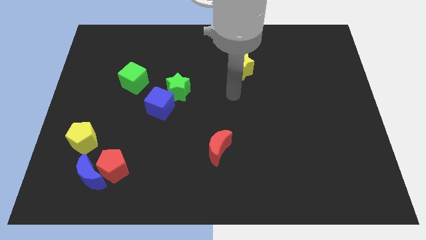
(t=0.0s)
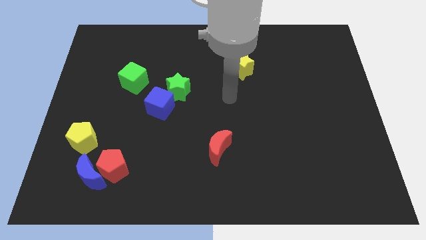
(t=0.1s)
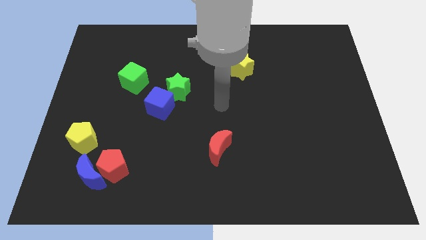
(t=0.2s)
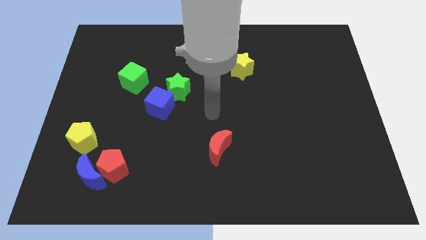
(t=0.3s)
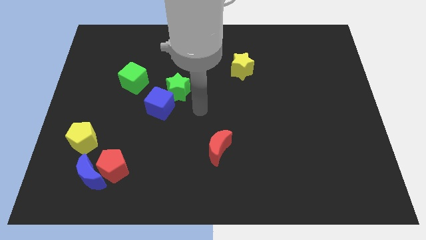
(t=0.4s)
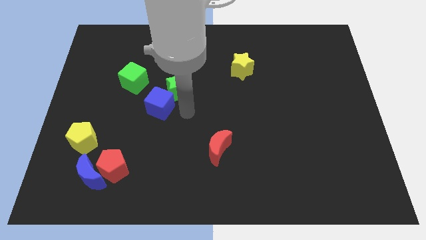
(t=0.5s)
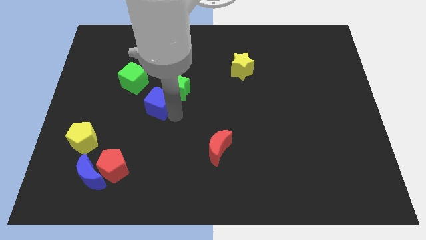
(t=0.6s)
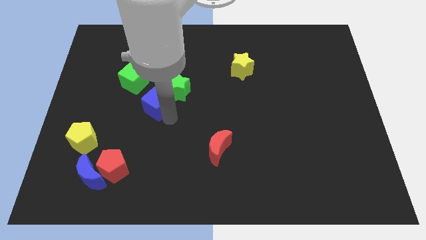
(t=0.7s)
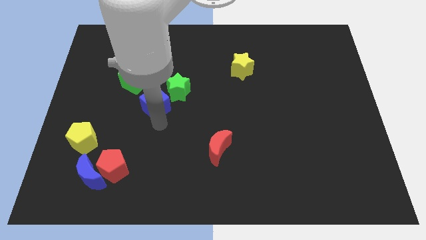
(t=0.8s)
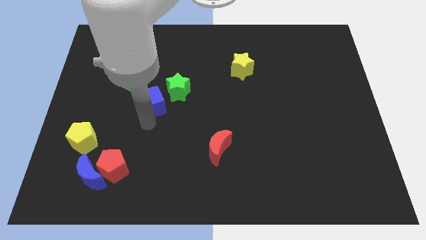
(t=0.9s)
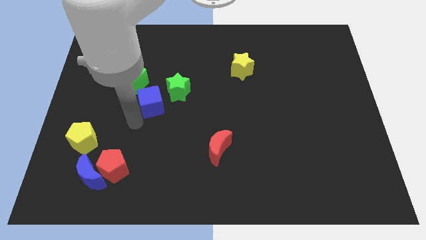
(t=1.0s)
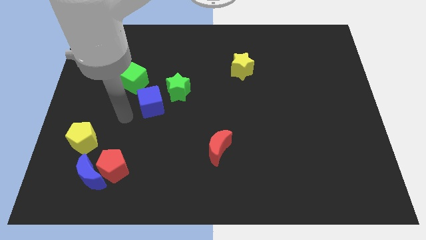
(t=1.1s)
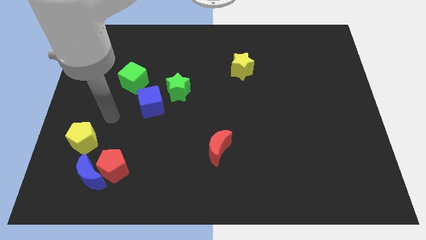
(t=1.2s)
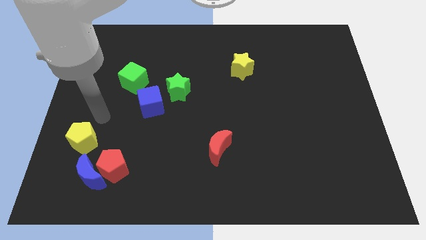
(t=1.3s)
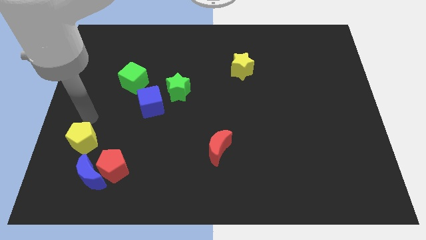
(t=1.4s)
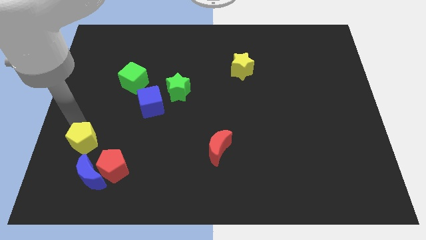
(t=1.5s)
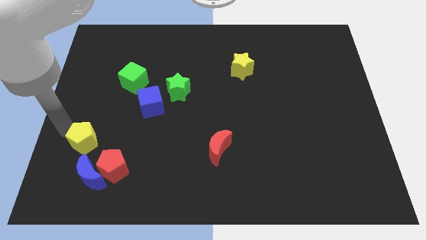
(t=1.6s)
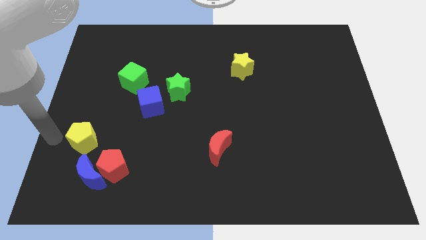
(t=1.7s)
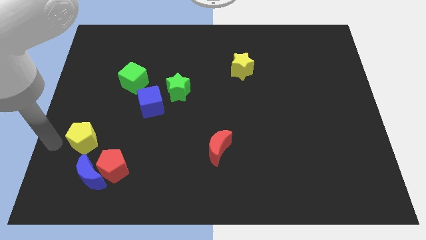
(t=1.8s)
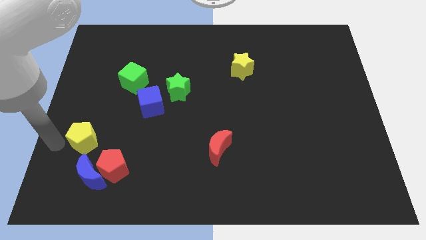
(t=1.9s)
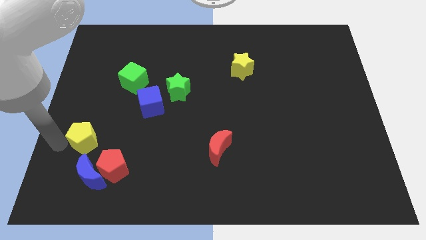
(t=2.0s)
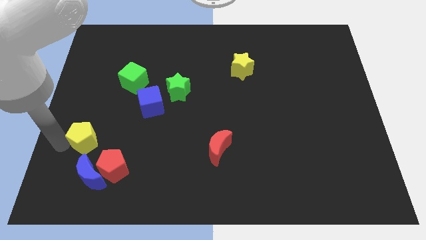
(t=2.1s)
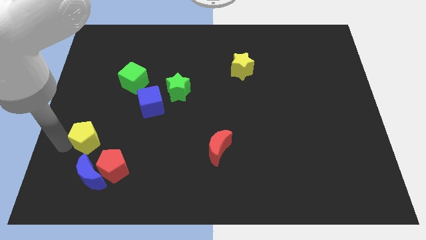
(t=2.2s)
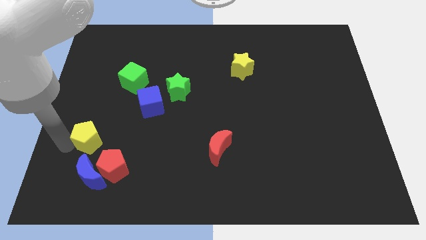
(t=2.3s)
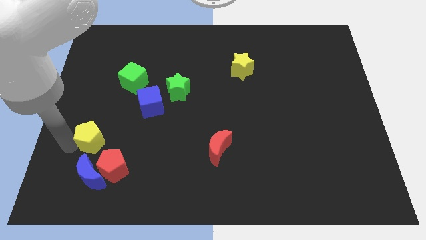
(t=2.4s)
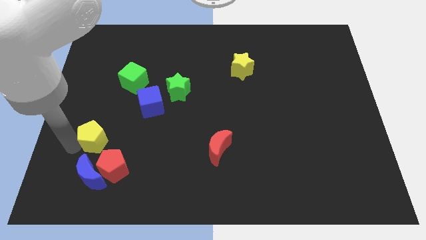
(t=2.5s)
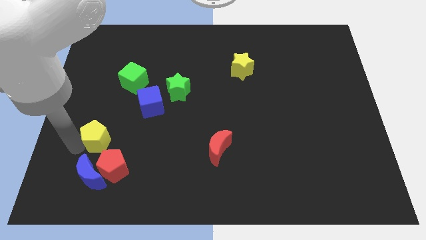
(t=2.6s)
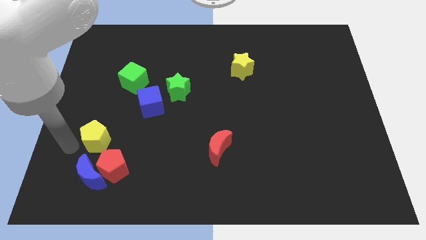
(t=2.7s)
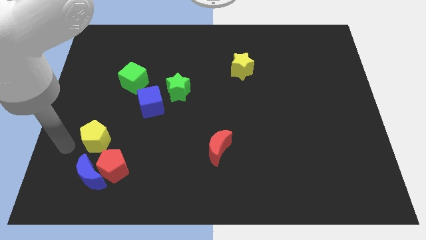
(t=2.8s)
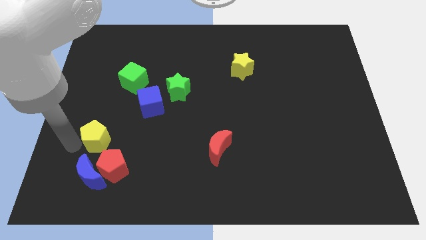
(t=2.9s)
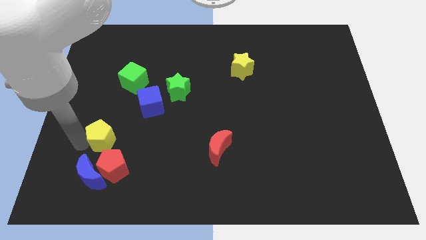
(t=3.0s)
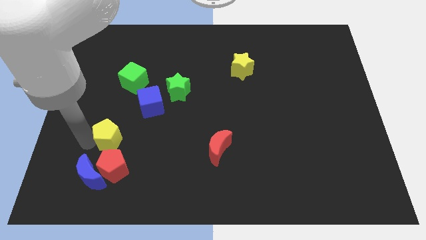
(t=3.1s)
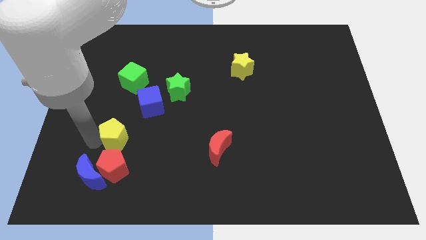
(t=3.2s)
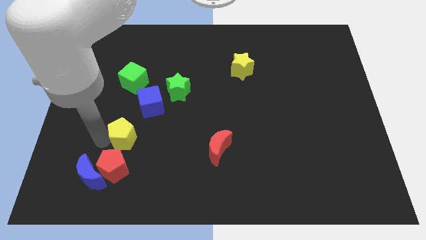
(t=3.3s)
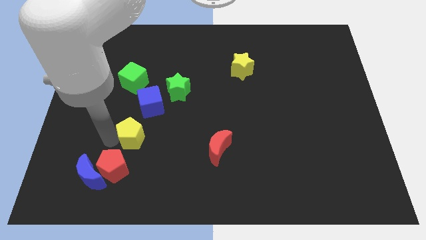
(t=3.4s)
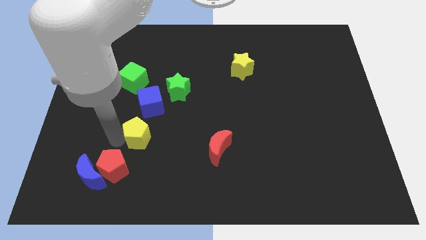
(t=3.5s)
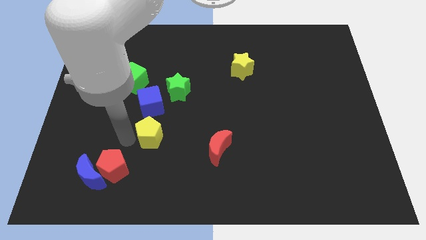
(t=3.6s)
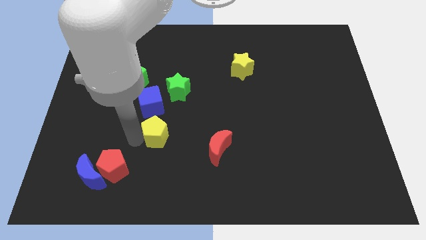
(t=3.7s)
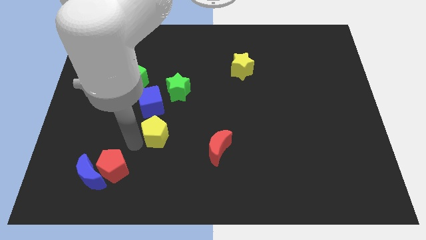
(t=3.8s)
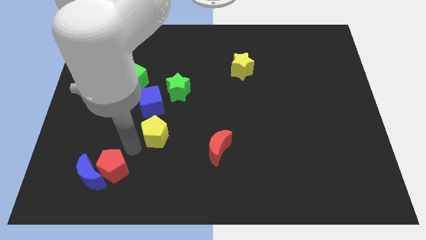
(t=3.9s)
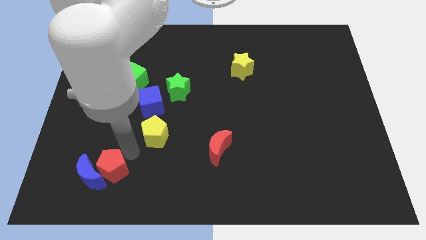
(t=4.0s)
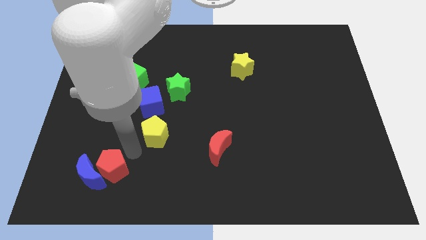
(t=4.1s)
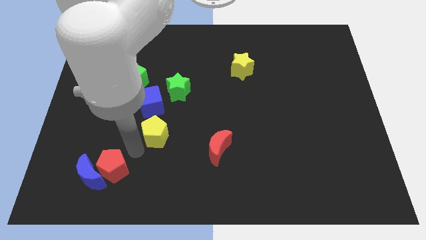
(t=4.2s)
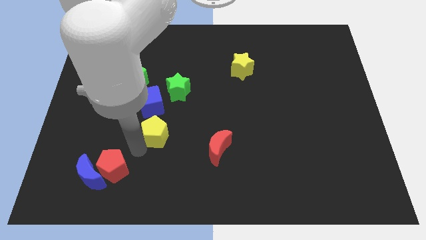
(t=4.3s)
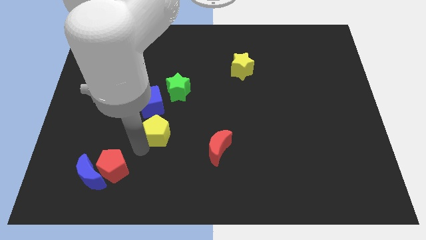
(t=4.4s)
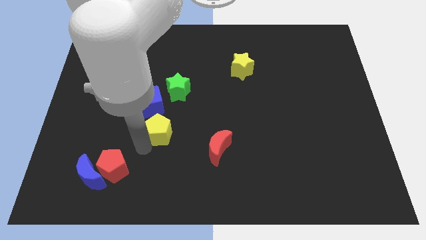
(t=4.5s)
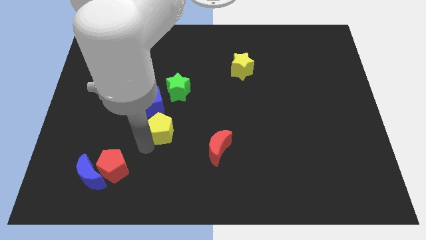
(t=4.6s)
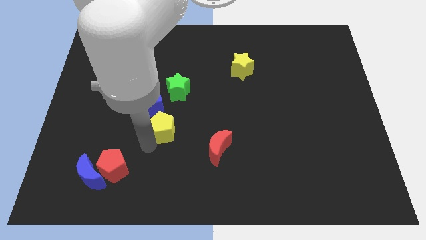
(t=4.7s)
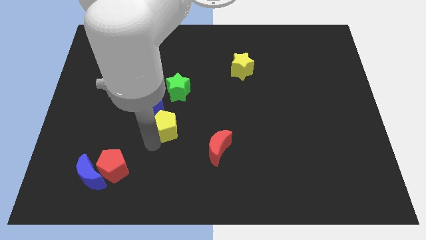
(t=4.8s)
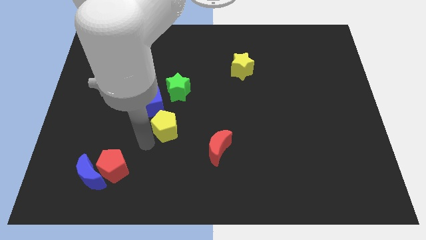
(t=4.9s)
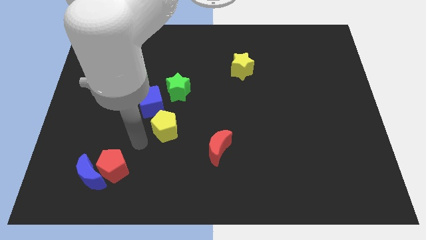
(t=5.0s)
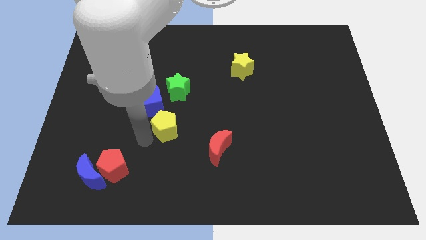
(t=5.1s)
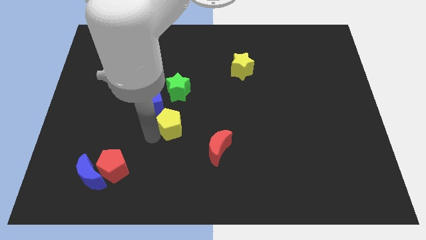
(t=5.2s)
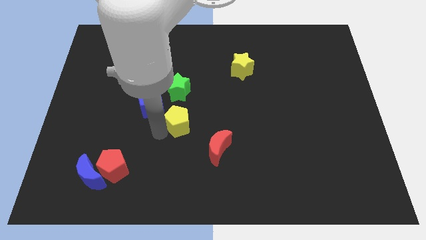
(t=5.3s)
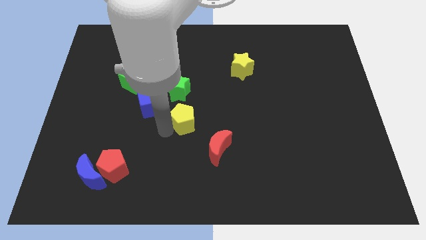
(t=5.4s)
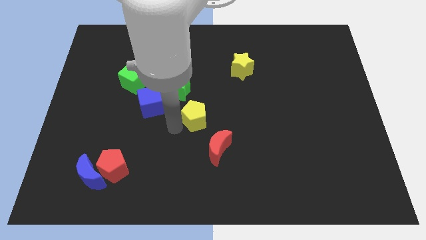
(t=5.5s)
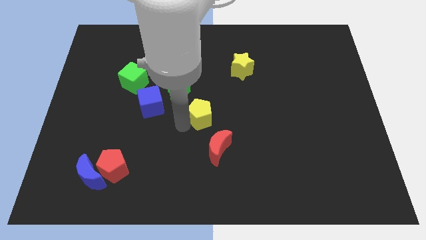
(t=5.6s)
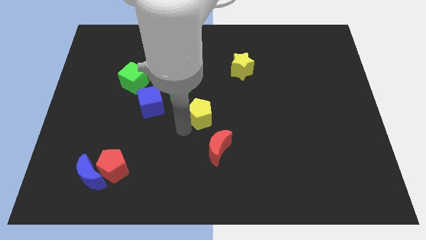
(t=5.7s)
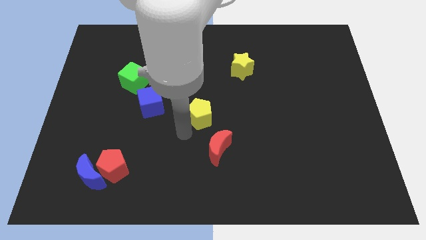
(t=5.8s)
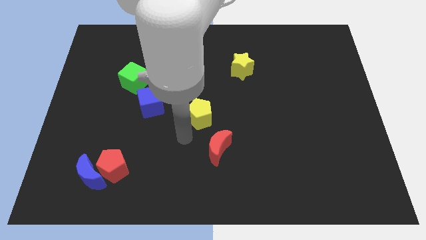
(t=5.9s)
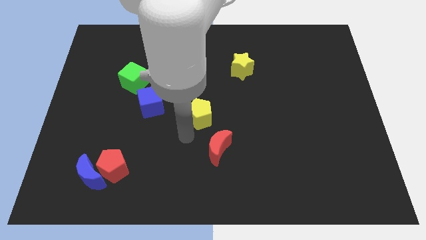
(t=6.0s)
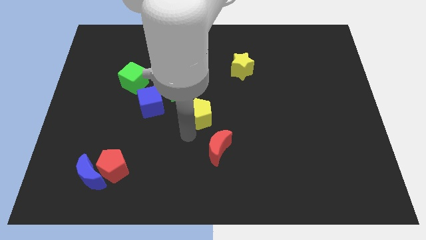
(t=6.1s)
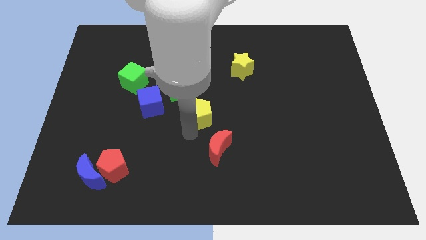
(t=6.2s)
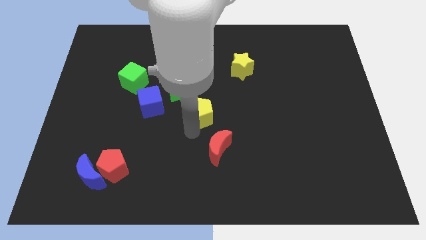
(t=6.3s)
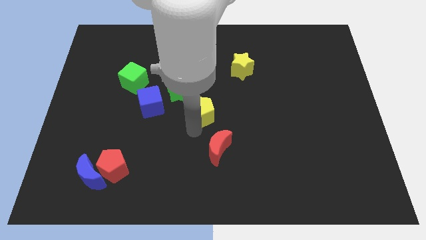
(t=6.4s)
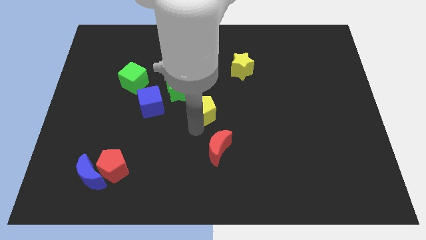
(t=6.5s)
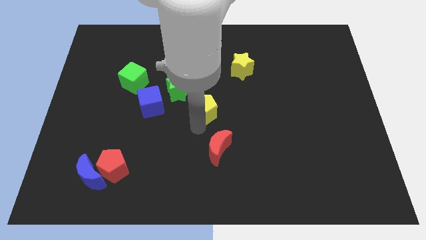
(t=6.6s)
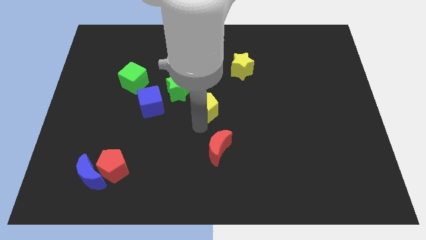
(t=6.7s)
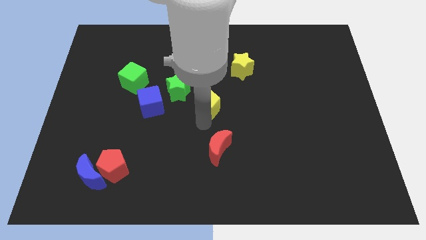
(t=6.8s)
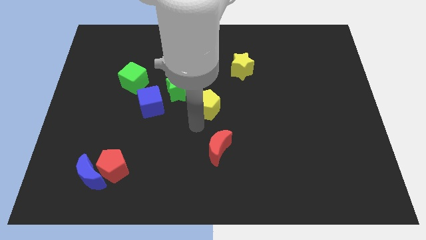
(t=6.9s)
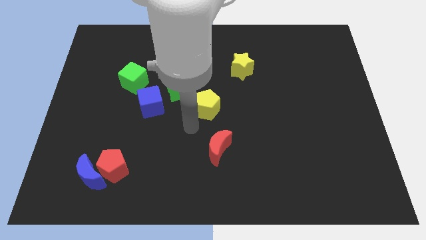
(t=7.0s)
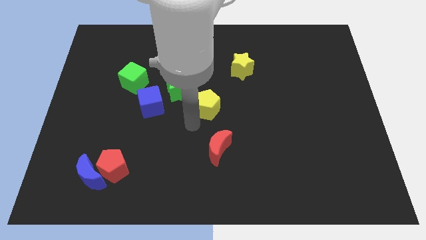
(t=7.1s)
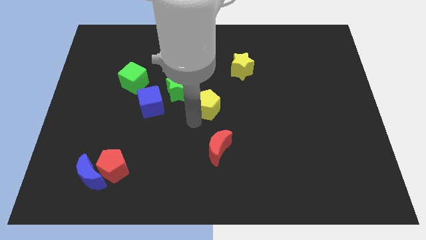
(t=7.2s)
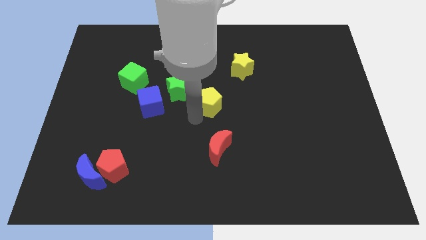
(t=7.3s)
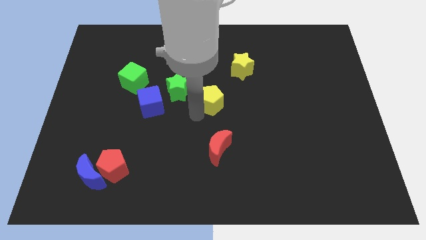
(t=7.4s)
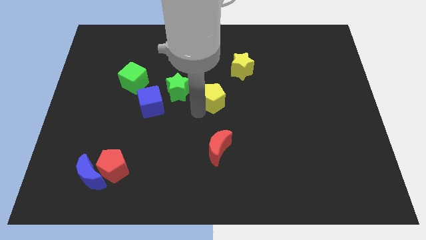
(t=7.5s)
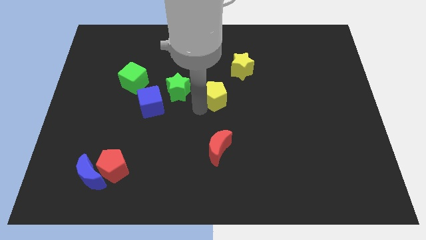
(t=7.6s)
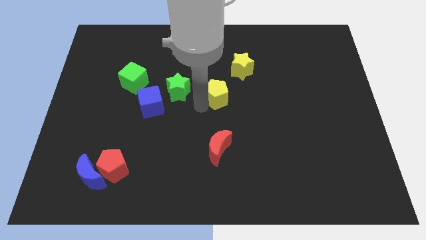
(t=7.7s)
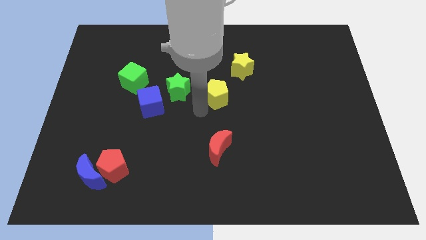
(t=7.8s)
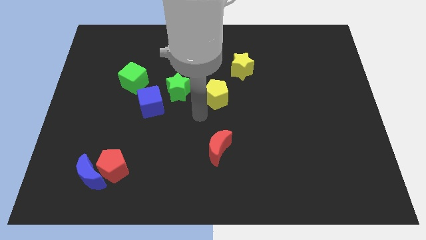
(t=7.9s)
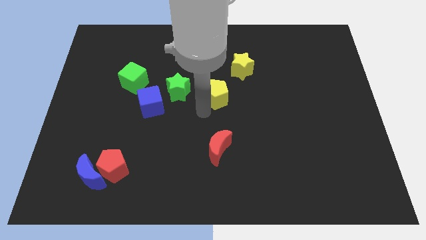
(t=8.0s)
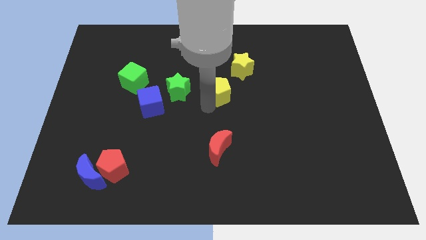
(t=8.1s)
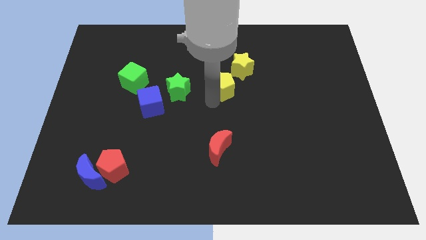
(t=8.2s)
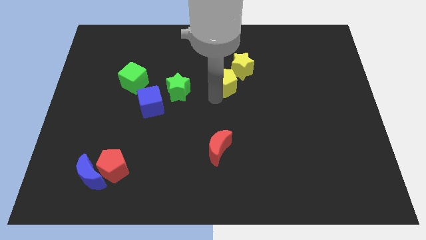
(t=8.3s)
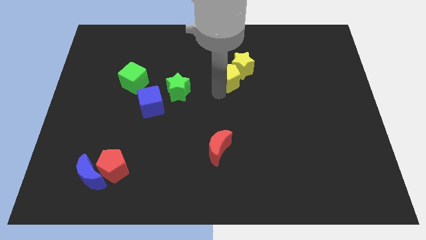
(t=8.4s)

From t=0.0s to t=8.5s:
slide the yellow pentagon next to the yellow star
